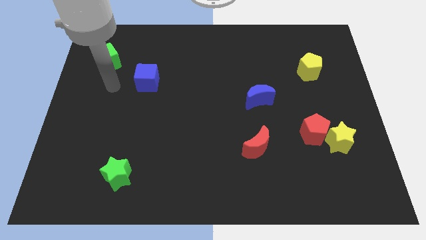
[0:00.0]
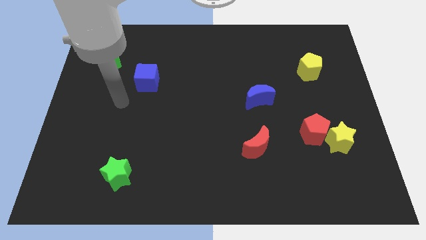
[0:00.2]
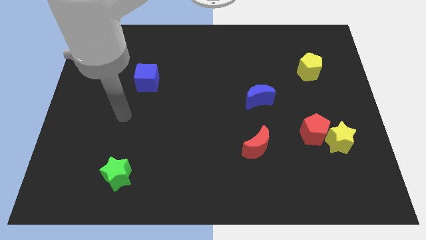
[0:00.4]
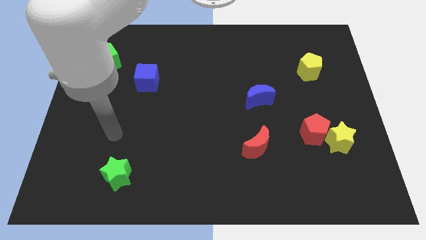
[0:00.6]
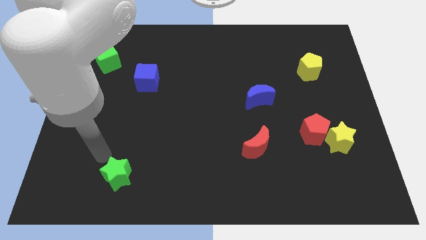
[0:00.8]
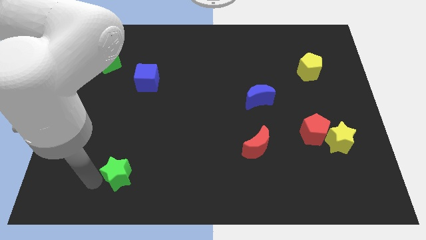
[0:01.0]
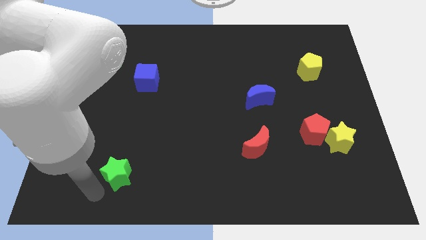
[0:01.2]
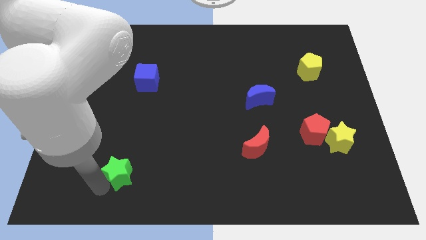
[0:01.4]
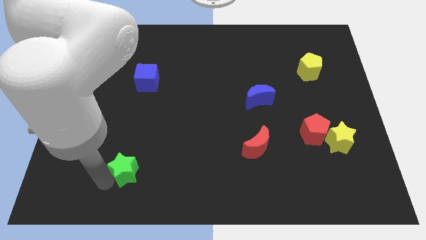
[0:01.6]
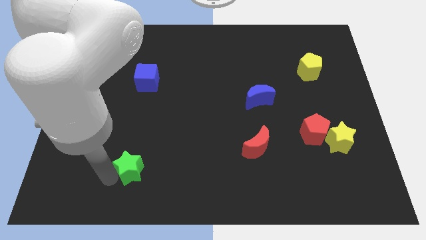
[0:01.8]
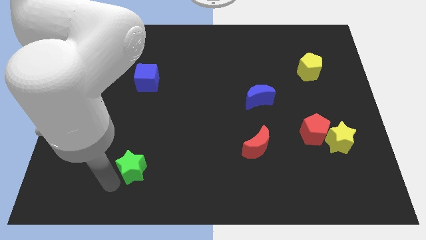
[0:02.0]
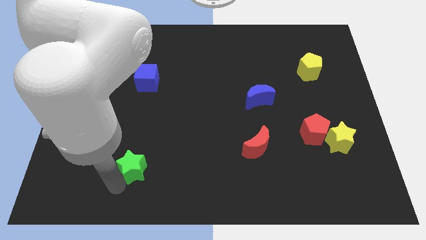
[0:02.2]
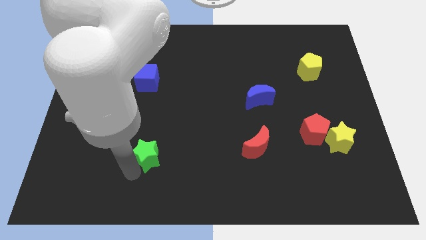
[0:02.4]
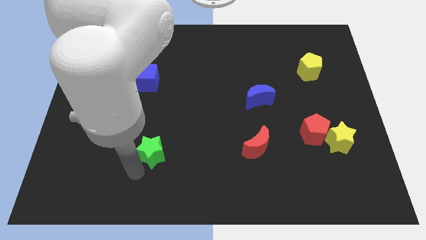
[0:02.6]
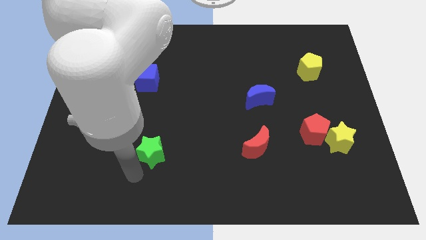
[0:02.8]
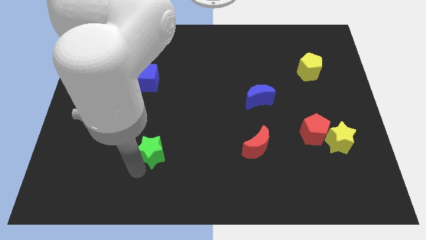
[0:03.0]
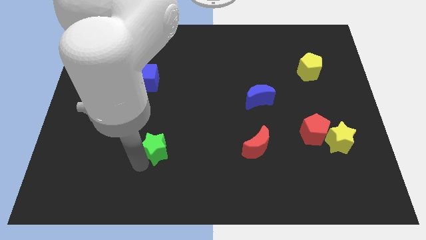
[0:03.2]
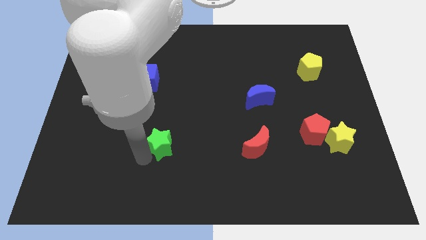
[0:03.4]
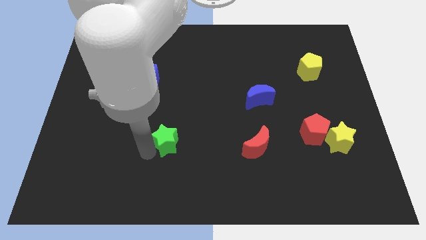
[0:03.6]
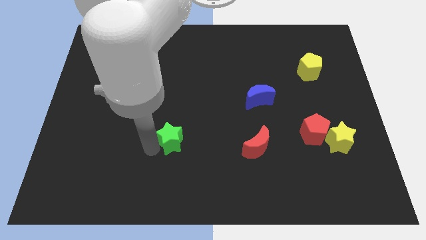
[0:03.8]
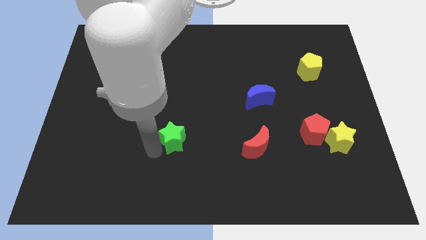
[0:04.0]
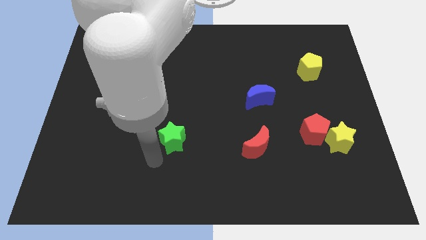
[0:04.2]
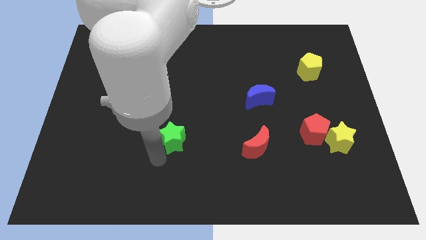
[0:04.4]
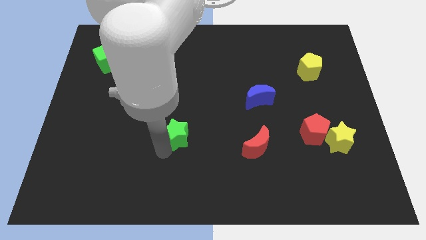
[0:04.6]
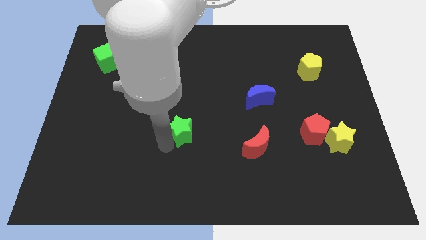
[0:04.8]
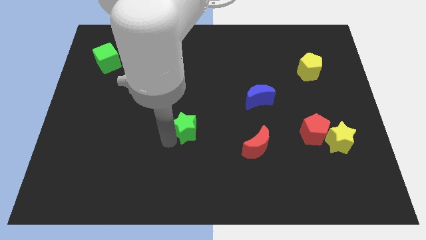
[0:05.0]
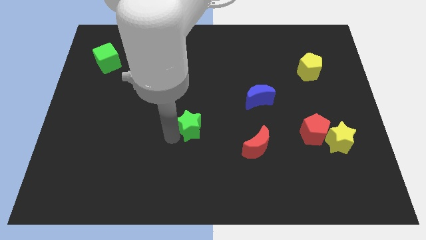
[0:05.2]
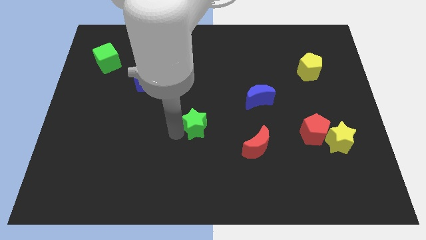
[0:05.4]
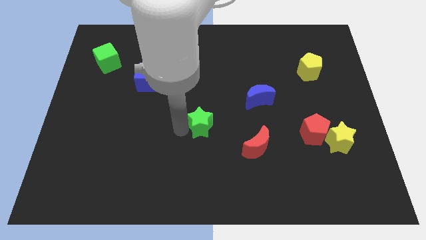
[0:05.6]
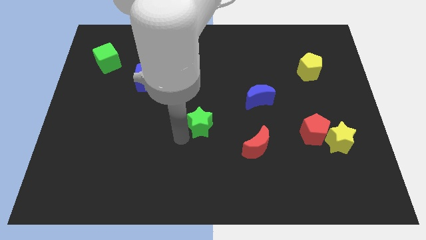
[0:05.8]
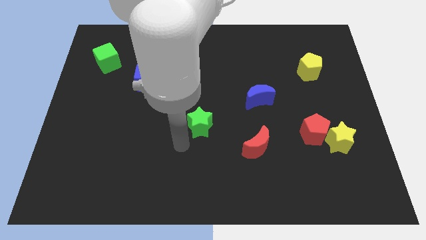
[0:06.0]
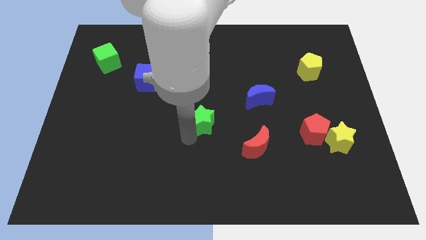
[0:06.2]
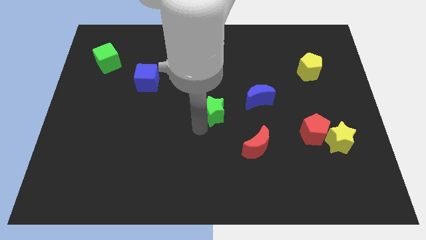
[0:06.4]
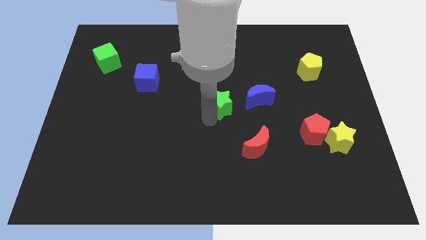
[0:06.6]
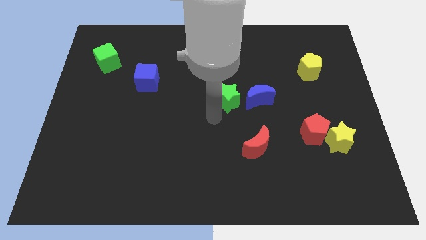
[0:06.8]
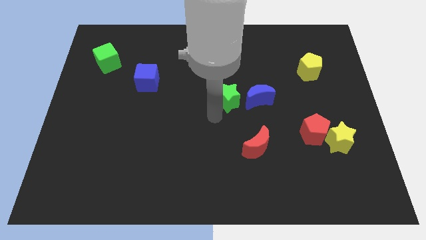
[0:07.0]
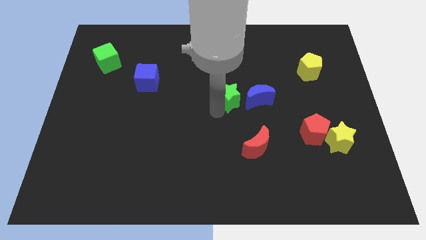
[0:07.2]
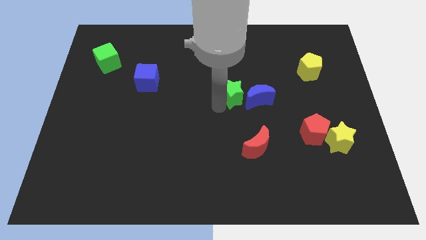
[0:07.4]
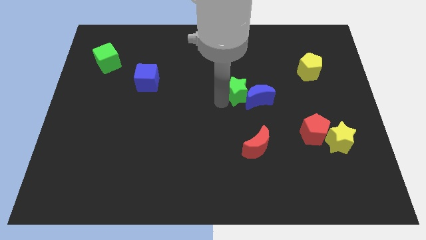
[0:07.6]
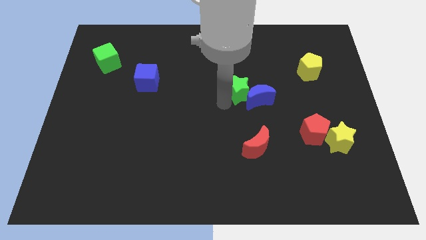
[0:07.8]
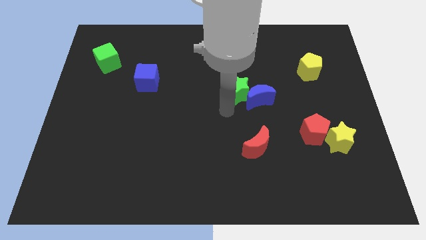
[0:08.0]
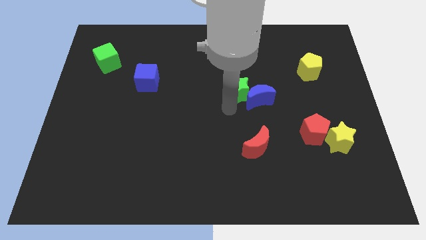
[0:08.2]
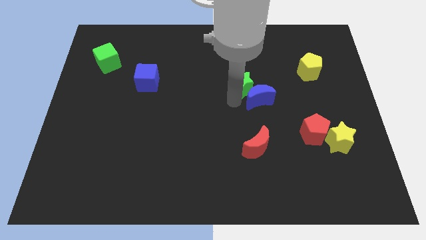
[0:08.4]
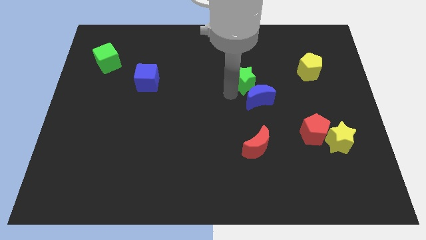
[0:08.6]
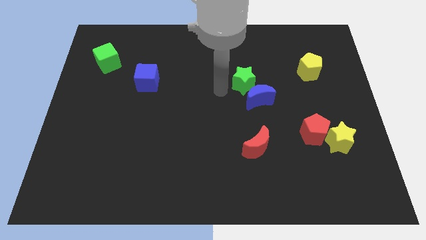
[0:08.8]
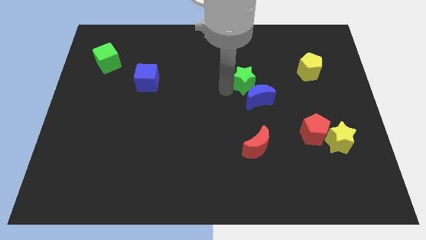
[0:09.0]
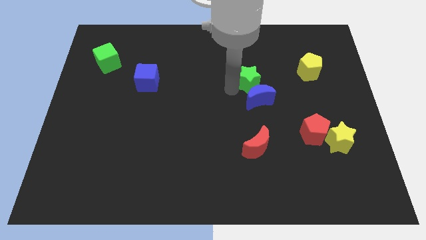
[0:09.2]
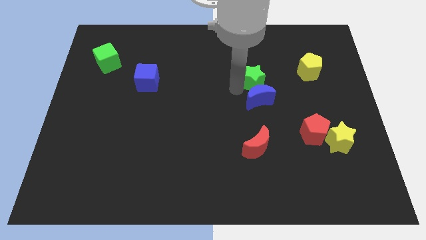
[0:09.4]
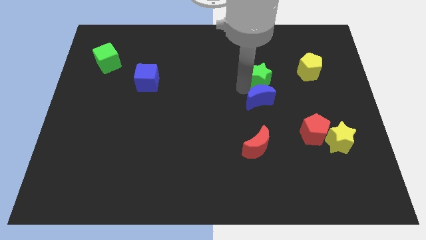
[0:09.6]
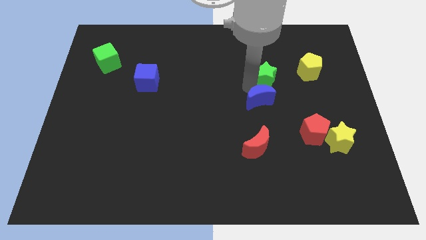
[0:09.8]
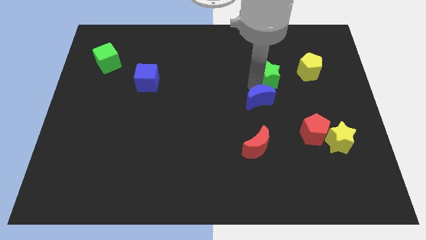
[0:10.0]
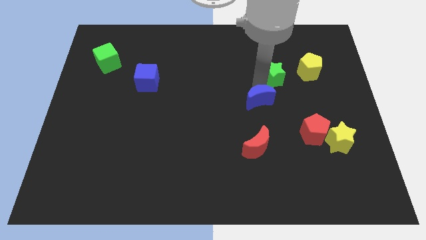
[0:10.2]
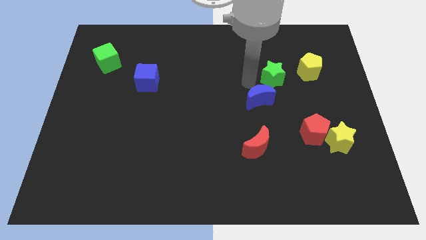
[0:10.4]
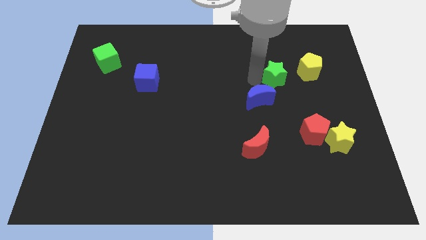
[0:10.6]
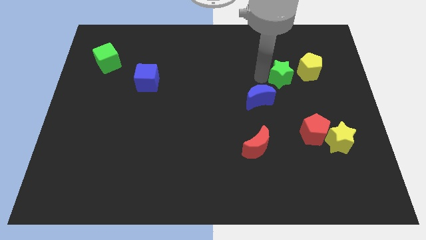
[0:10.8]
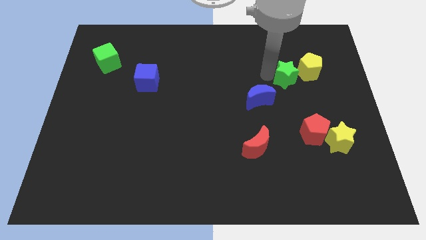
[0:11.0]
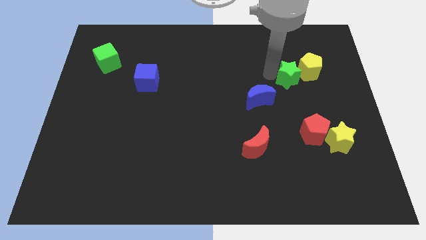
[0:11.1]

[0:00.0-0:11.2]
slide the green star close to the yellow pentagon

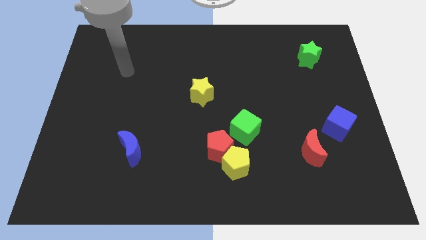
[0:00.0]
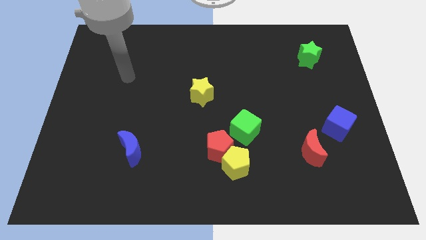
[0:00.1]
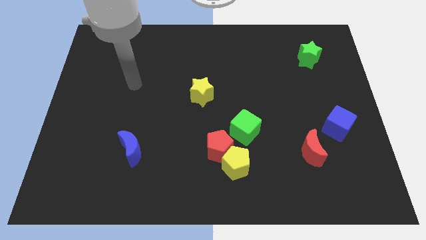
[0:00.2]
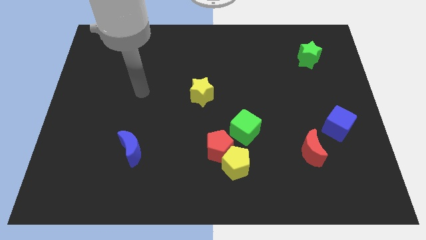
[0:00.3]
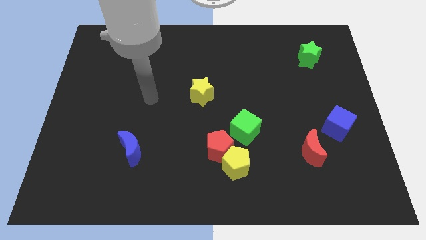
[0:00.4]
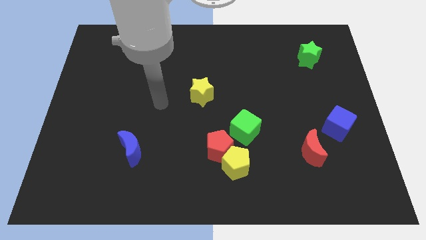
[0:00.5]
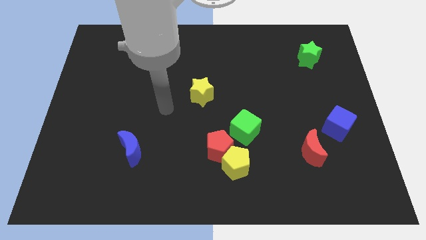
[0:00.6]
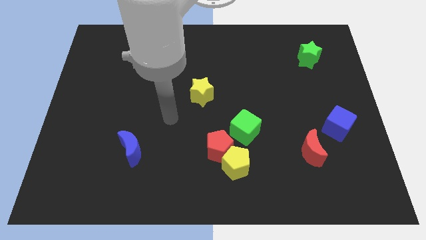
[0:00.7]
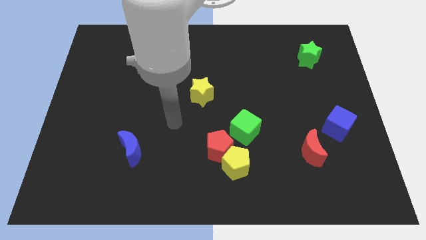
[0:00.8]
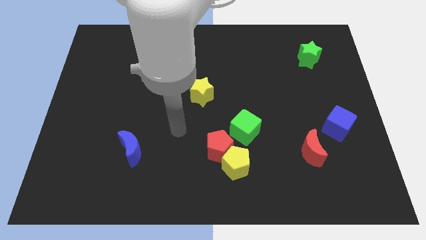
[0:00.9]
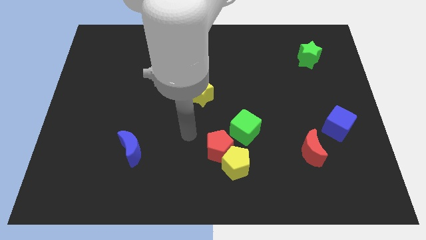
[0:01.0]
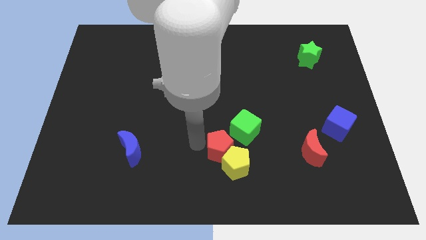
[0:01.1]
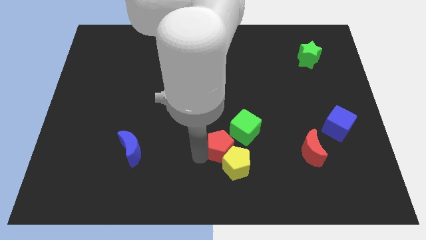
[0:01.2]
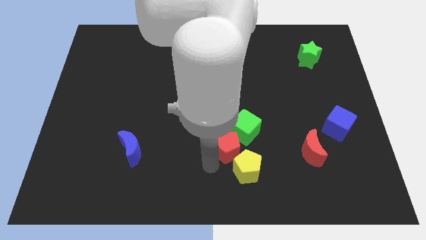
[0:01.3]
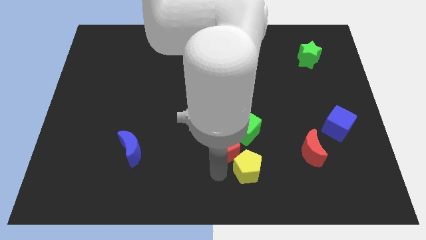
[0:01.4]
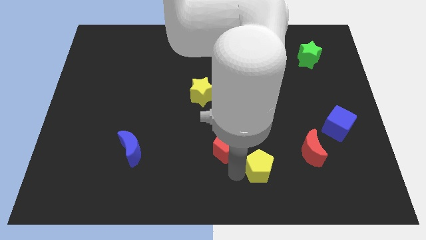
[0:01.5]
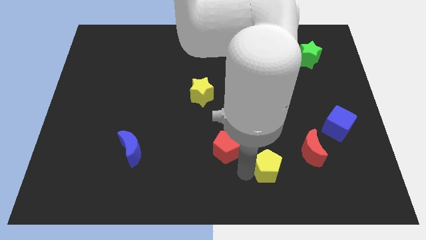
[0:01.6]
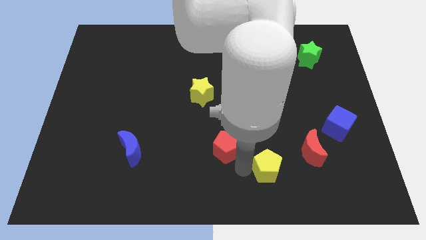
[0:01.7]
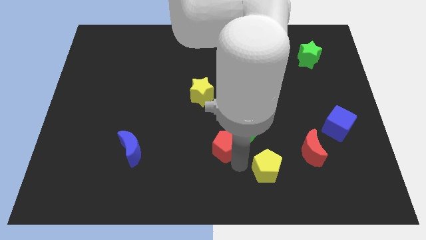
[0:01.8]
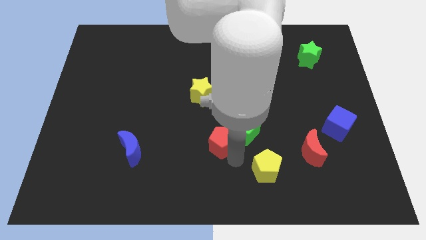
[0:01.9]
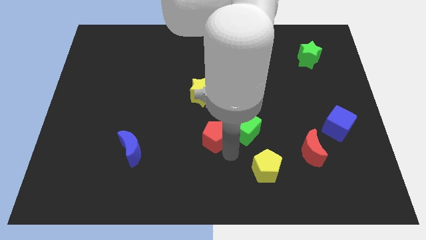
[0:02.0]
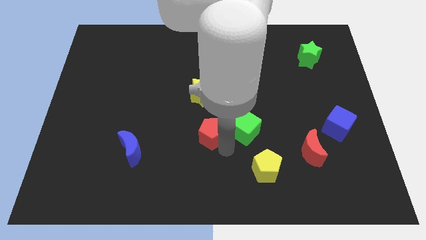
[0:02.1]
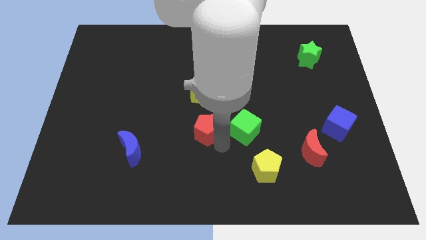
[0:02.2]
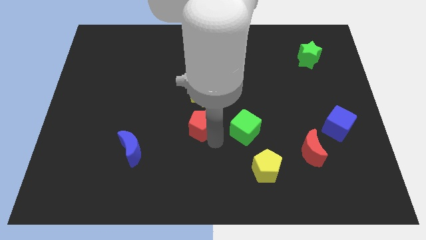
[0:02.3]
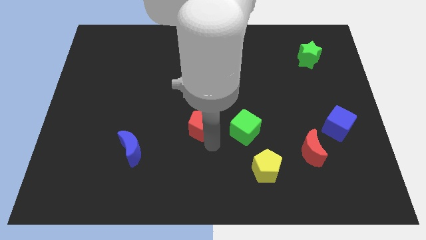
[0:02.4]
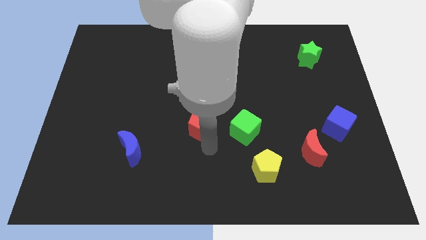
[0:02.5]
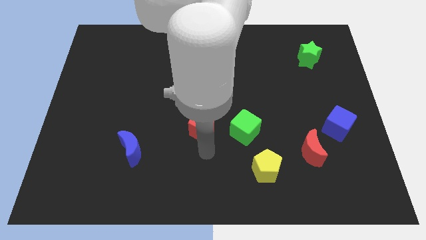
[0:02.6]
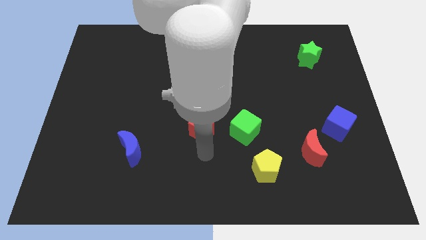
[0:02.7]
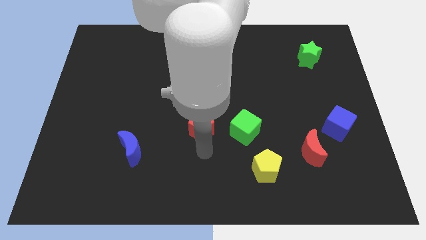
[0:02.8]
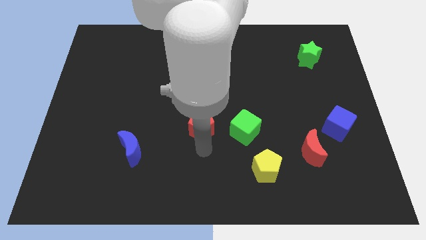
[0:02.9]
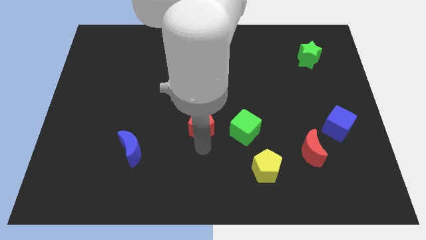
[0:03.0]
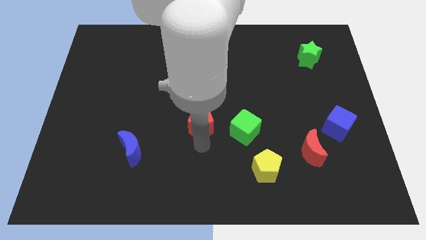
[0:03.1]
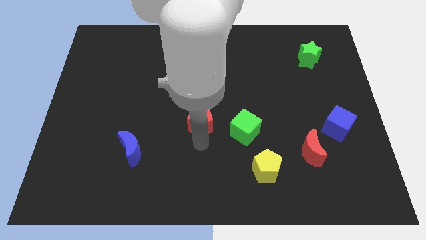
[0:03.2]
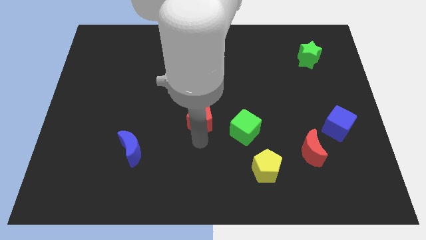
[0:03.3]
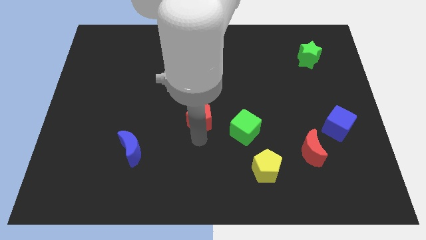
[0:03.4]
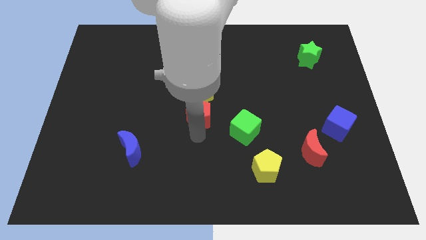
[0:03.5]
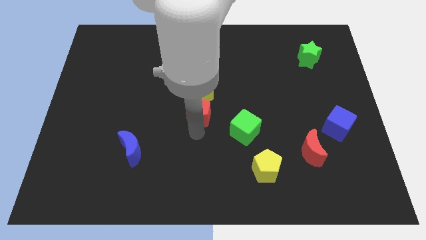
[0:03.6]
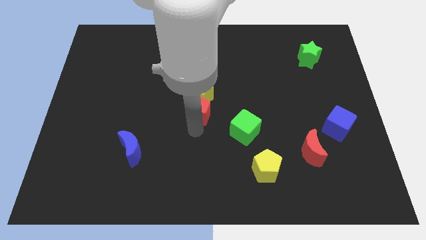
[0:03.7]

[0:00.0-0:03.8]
push the red pentagon to the yellow star
